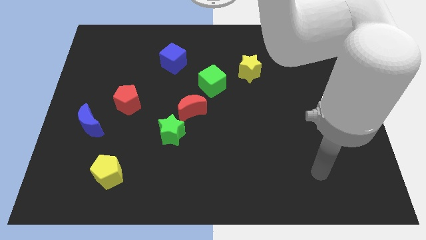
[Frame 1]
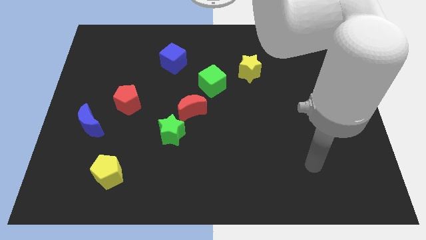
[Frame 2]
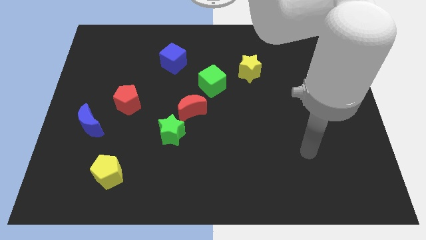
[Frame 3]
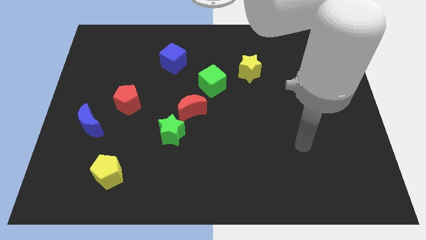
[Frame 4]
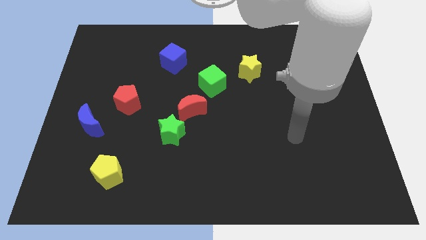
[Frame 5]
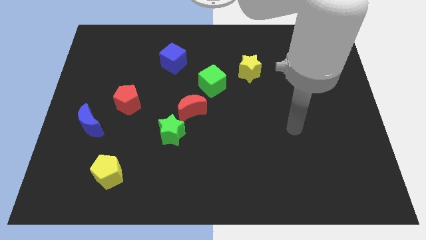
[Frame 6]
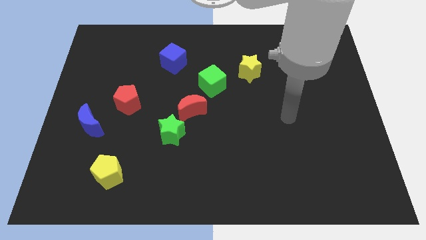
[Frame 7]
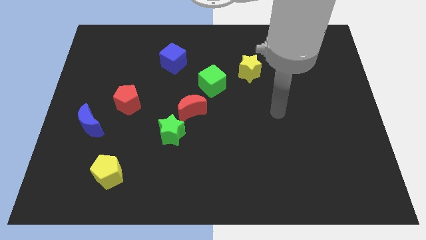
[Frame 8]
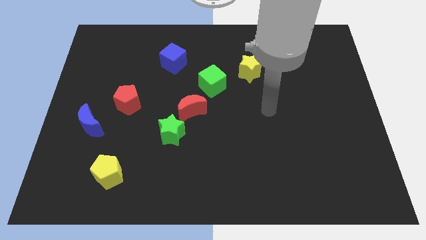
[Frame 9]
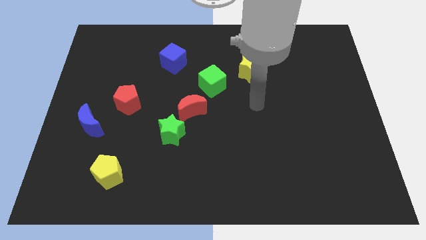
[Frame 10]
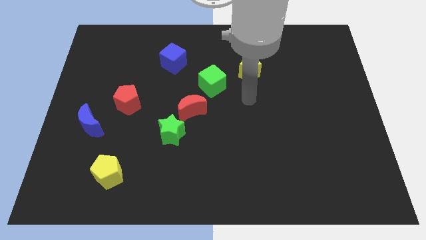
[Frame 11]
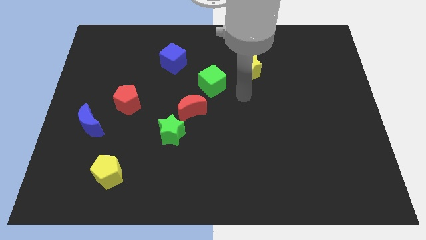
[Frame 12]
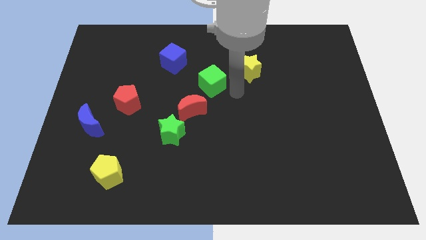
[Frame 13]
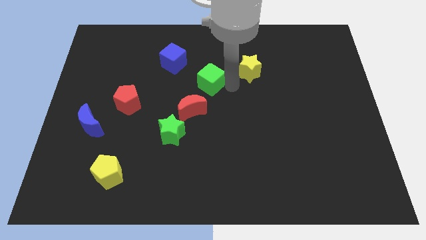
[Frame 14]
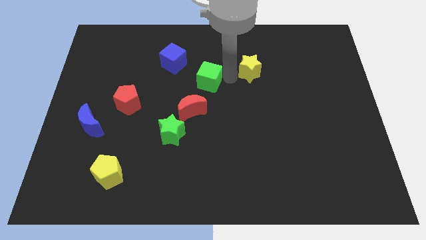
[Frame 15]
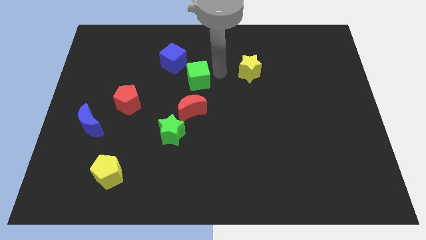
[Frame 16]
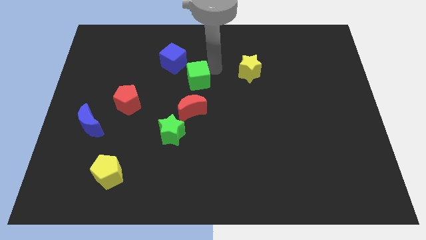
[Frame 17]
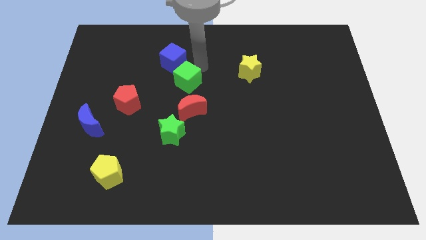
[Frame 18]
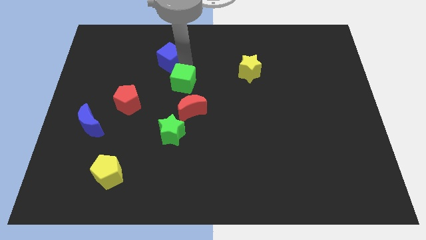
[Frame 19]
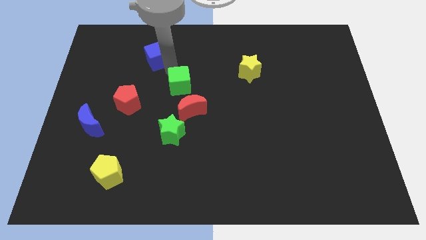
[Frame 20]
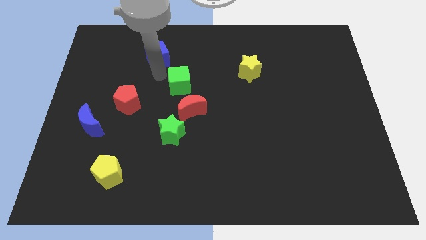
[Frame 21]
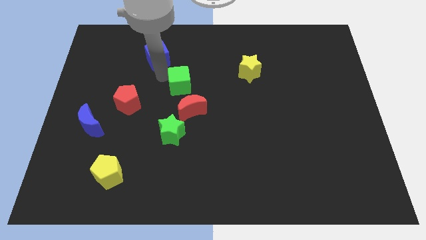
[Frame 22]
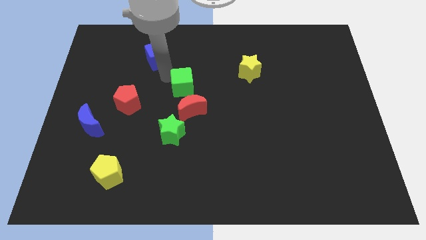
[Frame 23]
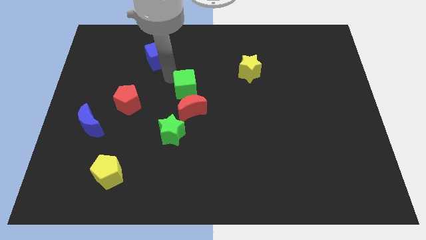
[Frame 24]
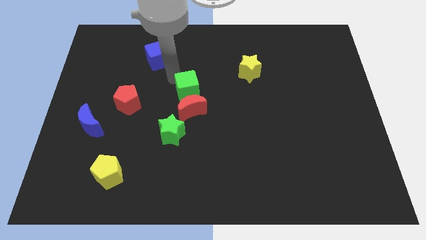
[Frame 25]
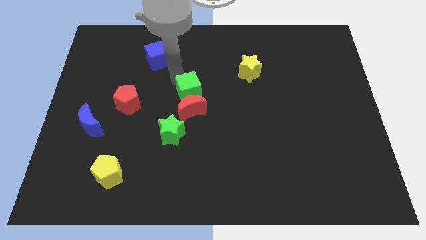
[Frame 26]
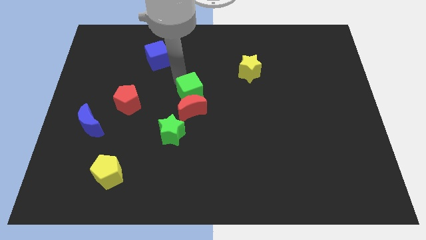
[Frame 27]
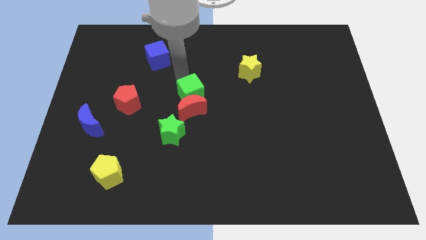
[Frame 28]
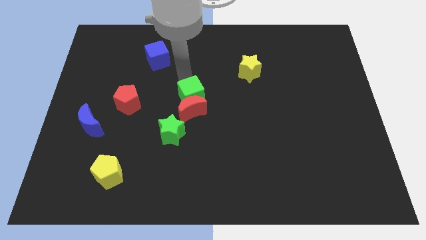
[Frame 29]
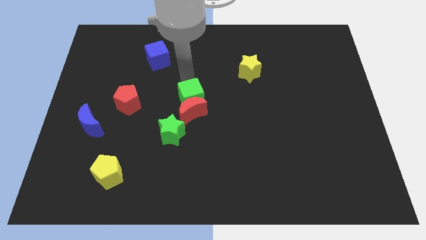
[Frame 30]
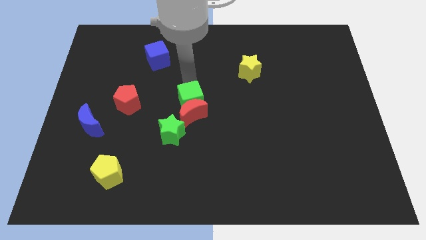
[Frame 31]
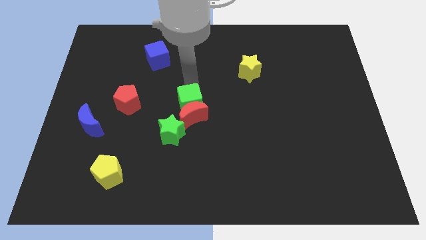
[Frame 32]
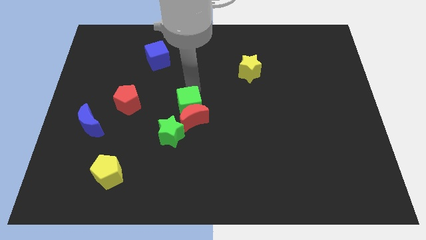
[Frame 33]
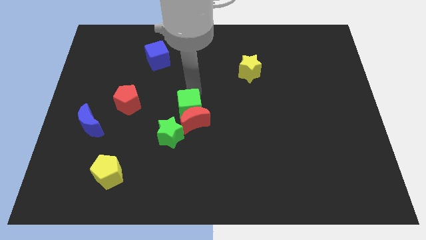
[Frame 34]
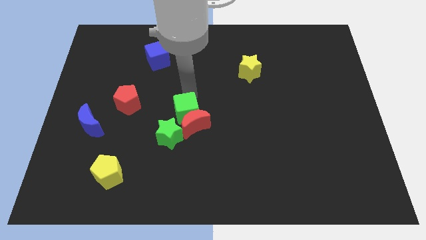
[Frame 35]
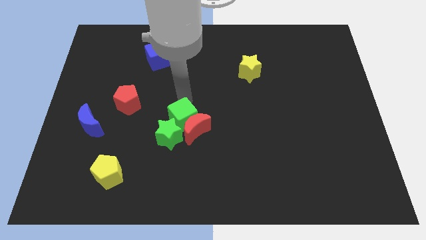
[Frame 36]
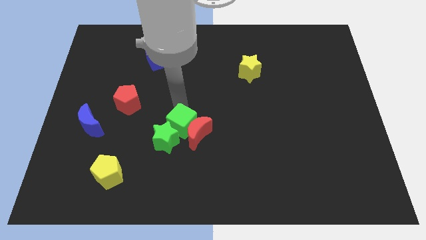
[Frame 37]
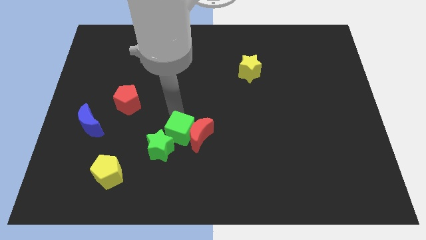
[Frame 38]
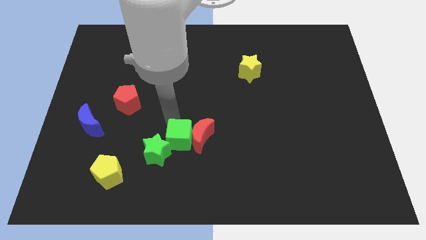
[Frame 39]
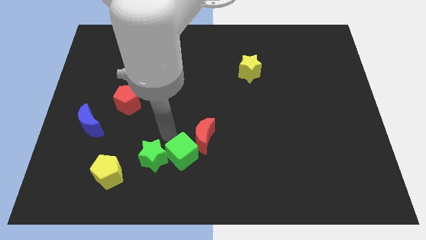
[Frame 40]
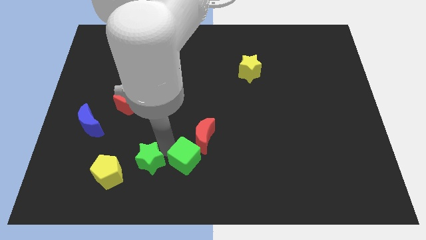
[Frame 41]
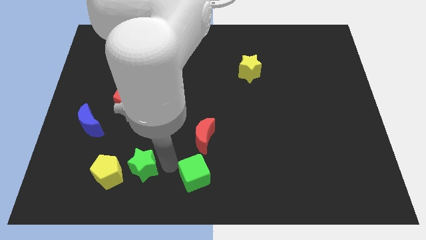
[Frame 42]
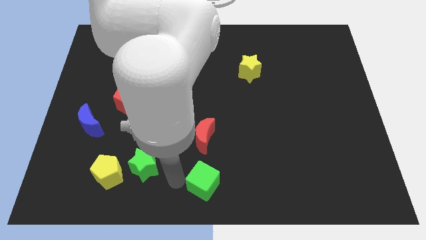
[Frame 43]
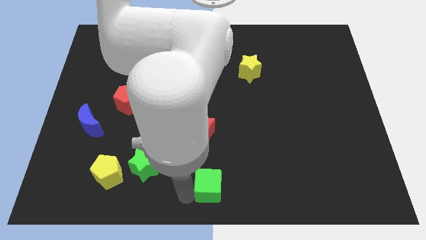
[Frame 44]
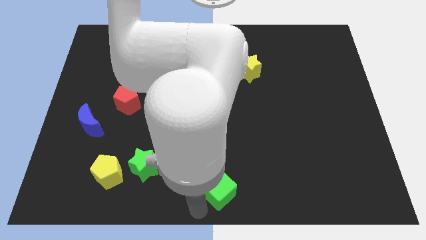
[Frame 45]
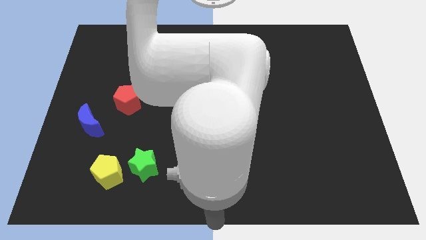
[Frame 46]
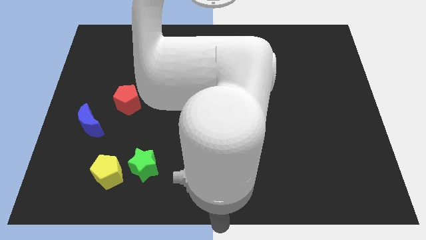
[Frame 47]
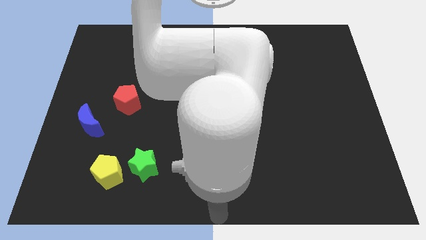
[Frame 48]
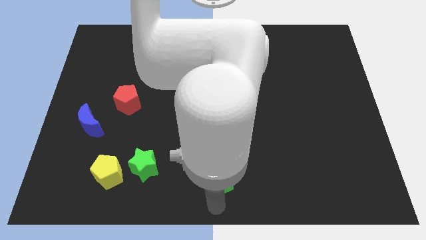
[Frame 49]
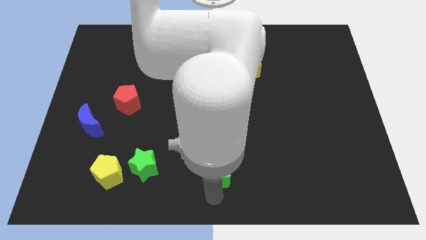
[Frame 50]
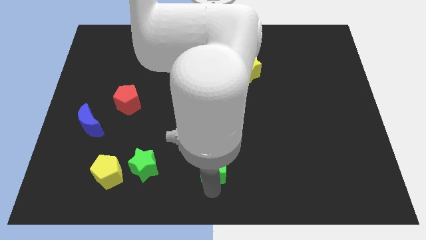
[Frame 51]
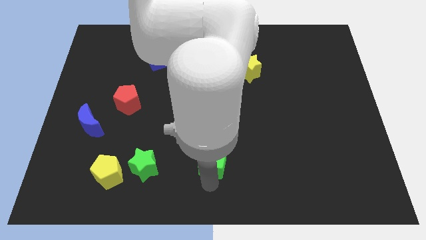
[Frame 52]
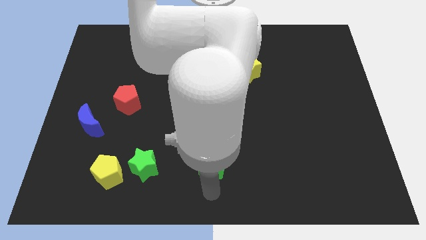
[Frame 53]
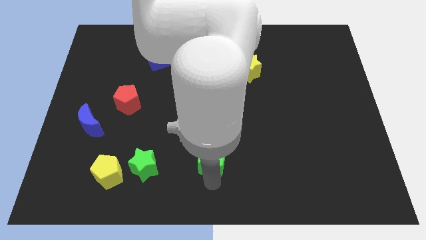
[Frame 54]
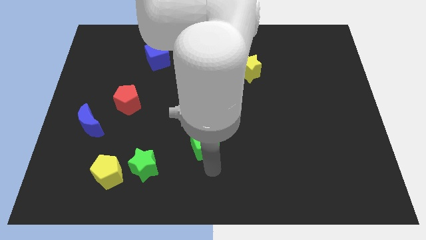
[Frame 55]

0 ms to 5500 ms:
push the green cube to the bottom of the red moon

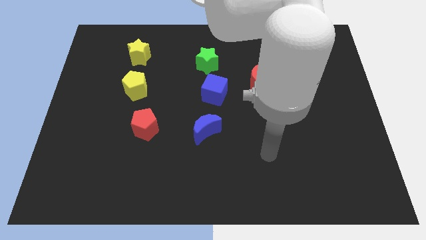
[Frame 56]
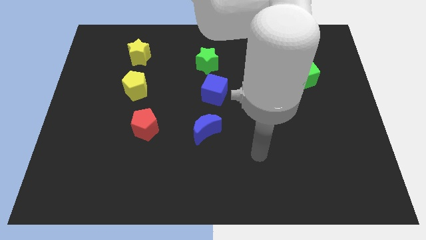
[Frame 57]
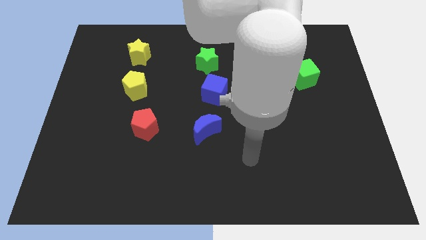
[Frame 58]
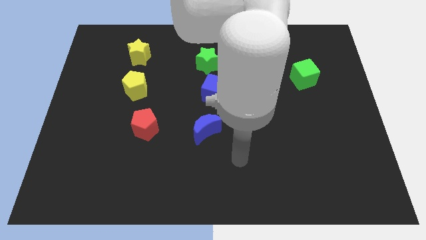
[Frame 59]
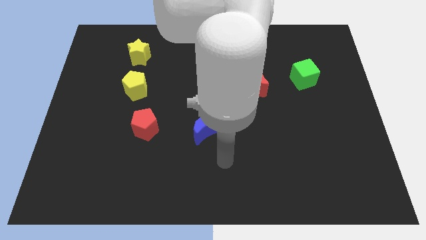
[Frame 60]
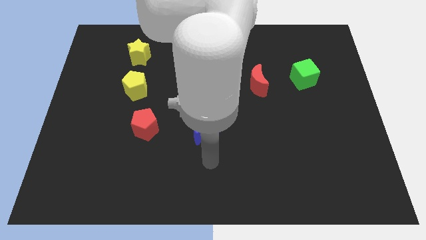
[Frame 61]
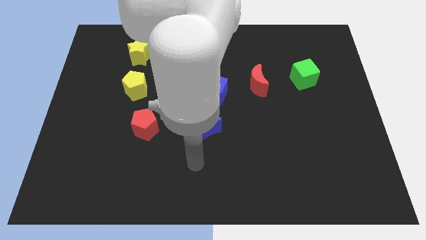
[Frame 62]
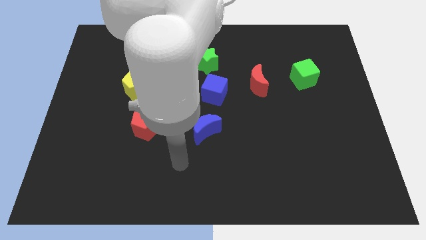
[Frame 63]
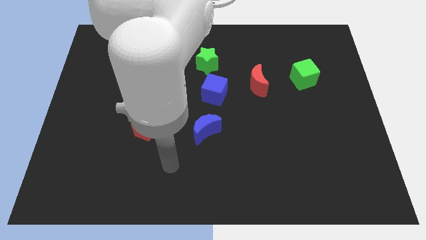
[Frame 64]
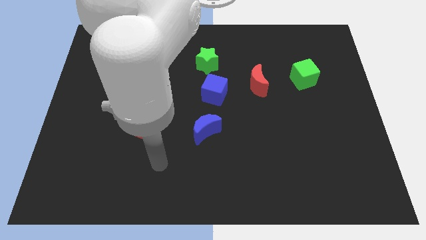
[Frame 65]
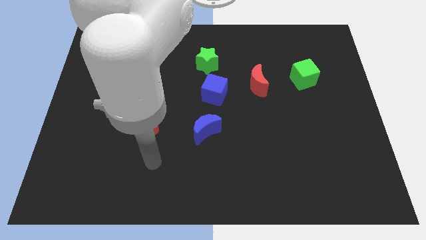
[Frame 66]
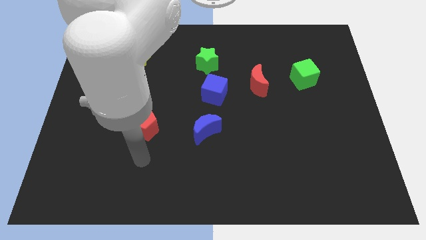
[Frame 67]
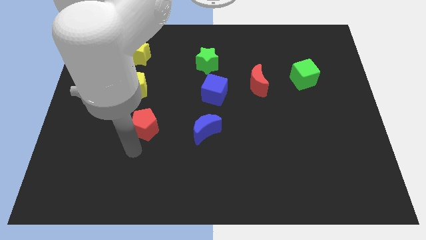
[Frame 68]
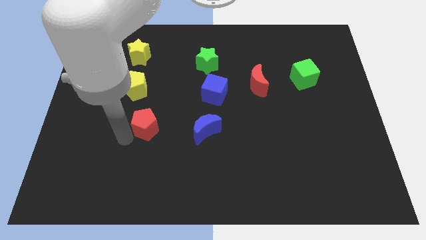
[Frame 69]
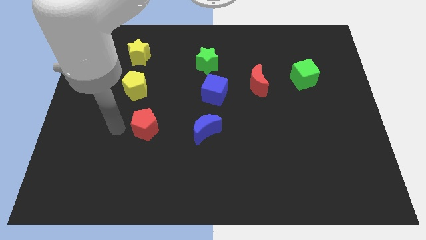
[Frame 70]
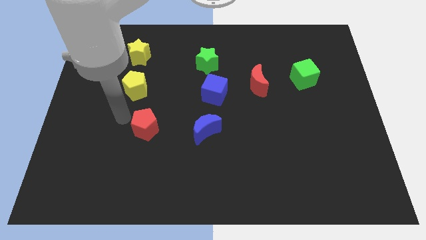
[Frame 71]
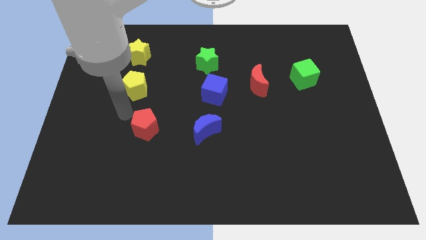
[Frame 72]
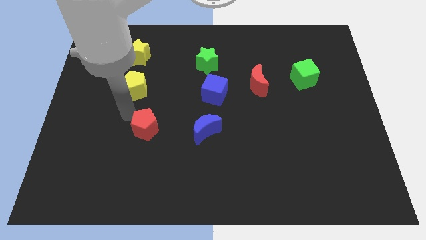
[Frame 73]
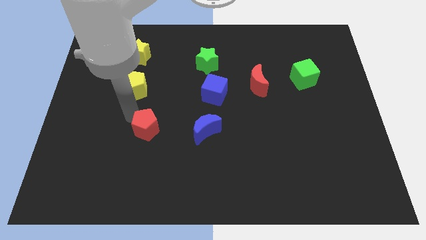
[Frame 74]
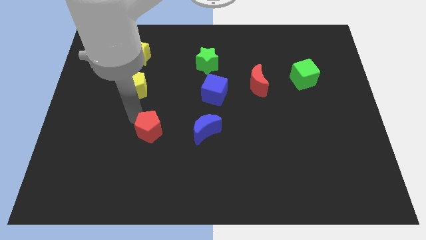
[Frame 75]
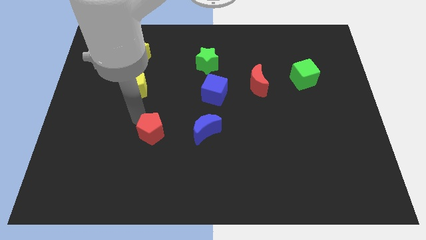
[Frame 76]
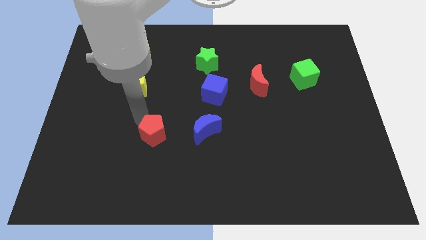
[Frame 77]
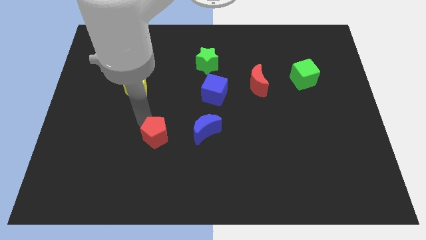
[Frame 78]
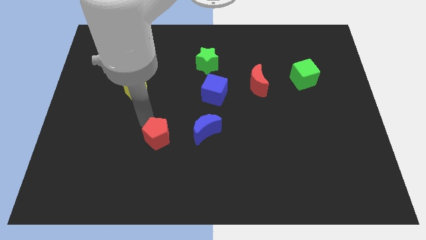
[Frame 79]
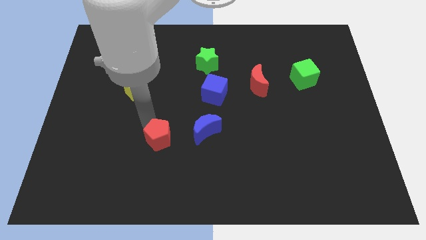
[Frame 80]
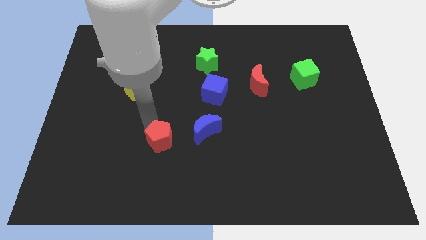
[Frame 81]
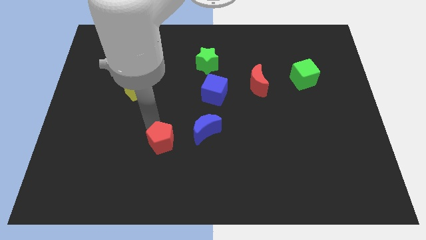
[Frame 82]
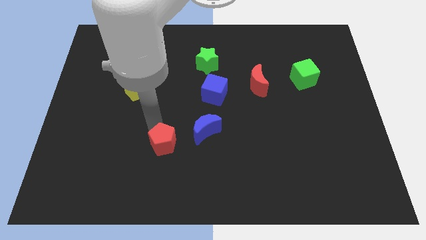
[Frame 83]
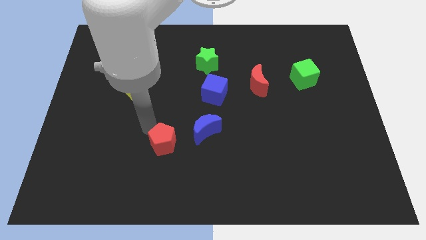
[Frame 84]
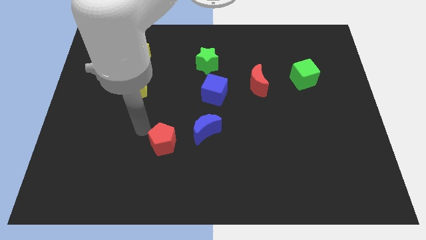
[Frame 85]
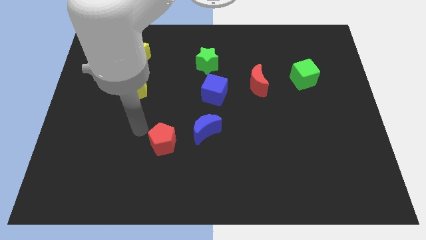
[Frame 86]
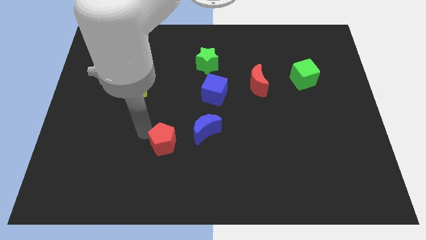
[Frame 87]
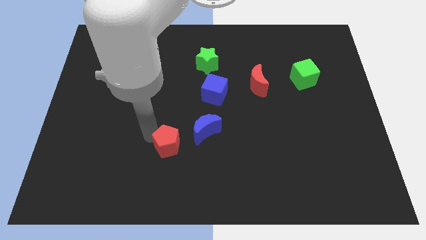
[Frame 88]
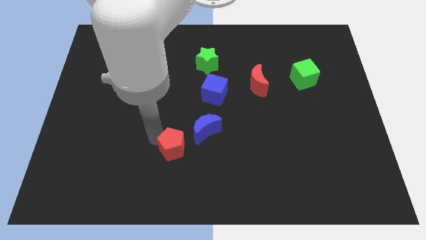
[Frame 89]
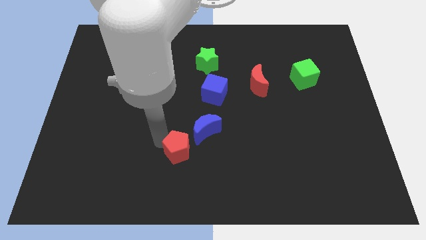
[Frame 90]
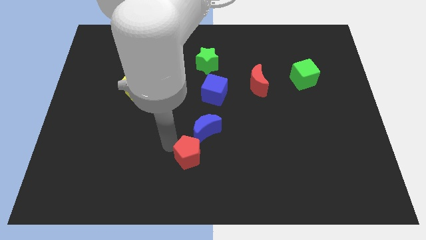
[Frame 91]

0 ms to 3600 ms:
put the red pentagon to the bottom of the blue moon
